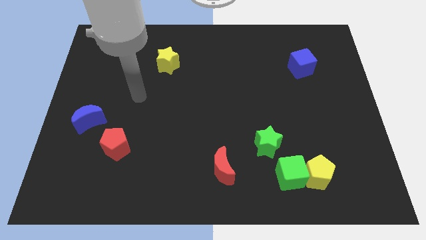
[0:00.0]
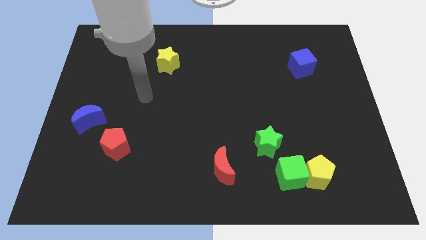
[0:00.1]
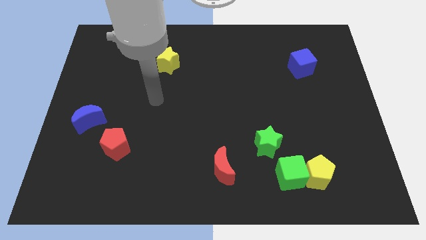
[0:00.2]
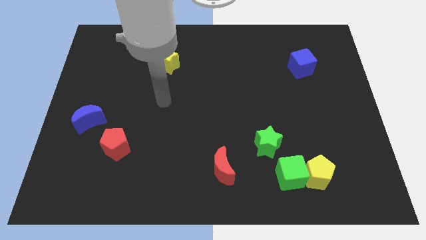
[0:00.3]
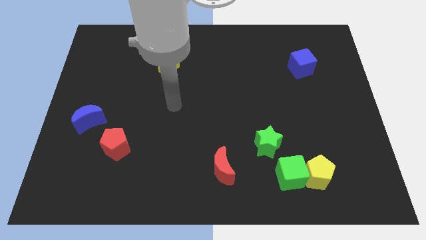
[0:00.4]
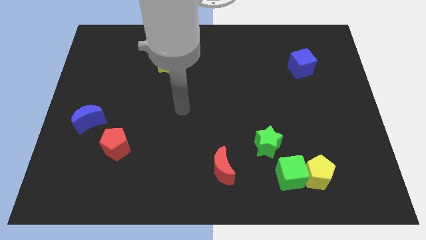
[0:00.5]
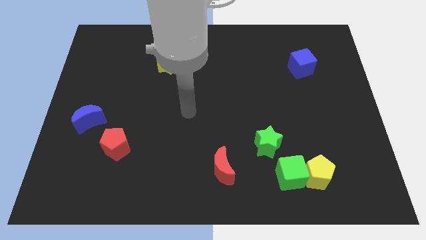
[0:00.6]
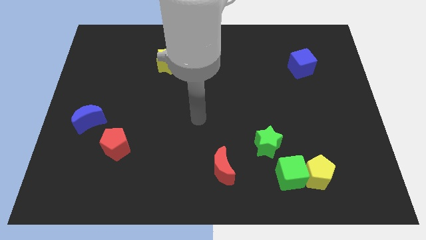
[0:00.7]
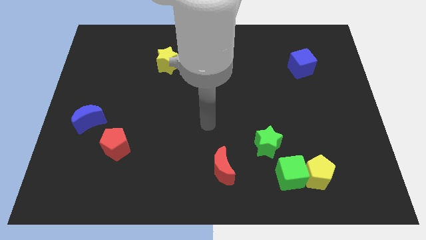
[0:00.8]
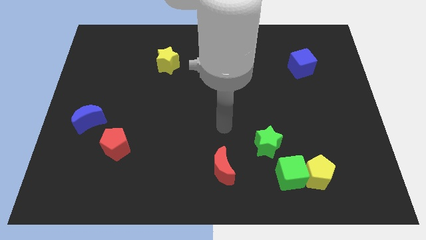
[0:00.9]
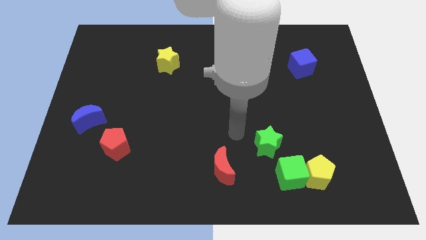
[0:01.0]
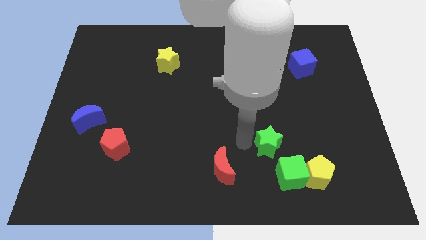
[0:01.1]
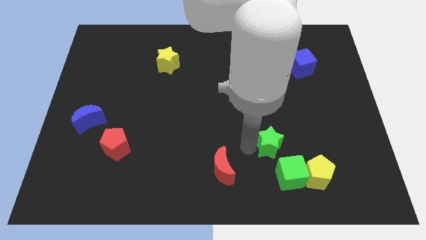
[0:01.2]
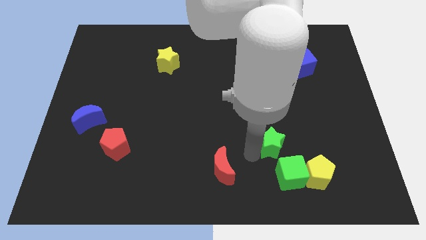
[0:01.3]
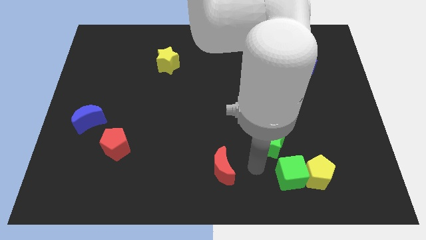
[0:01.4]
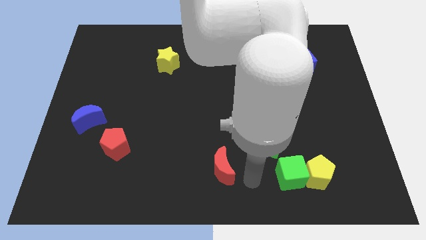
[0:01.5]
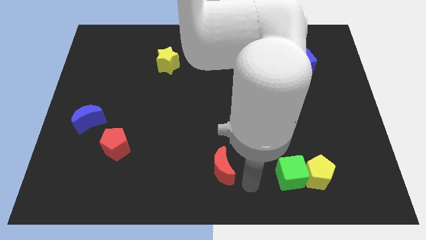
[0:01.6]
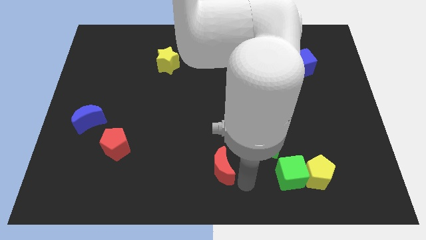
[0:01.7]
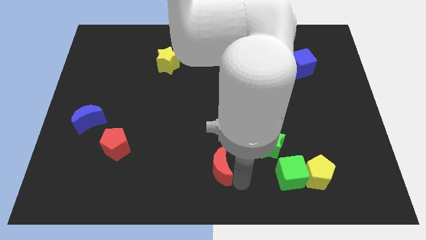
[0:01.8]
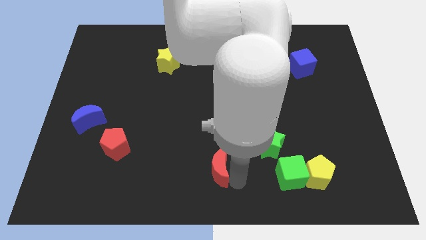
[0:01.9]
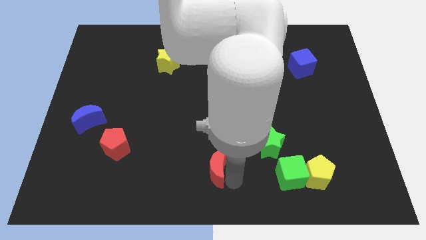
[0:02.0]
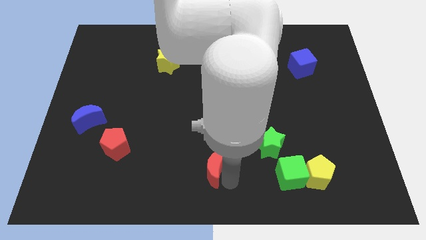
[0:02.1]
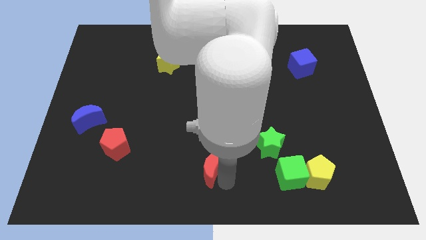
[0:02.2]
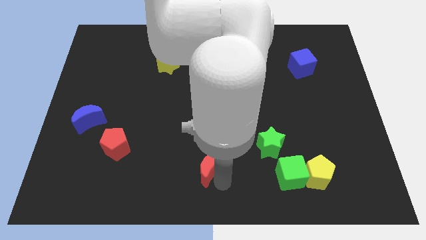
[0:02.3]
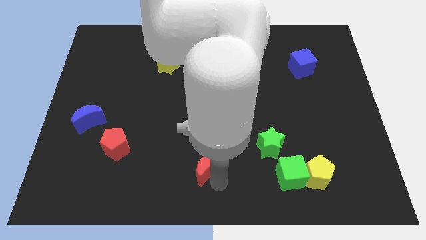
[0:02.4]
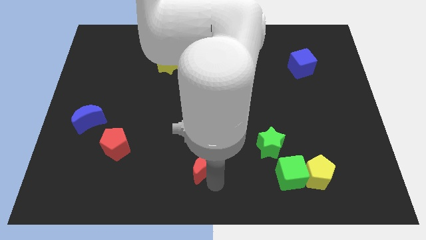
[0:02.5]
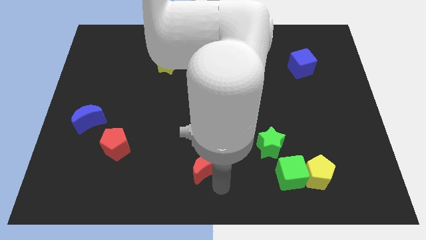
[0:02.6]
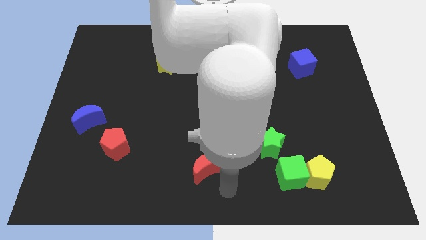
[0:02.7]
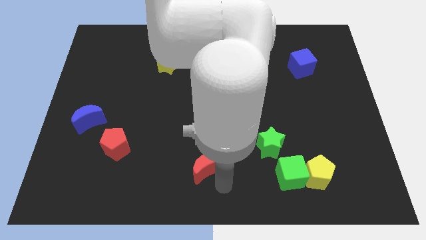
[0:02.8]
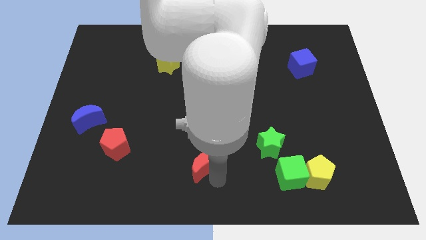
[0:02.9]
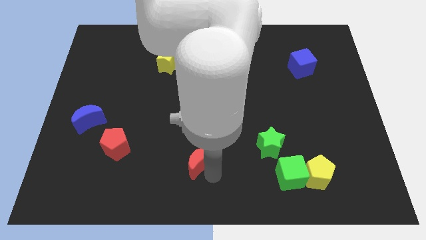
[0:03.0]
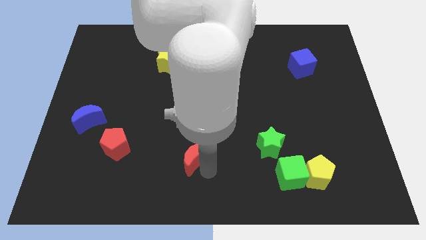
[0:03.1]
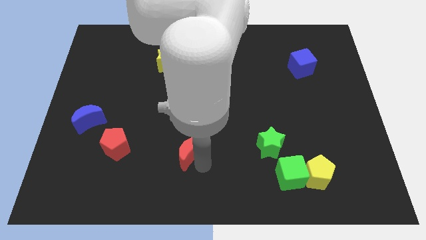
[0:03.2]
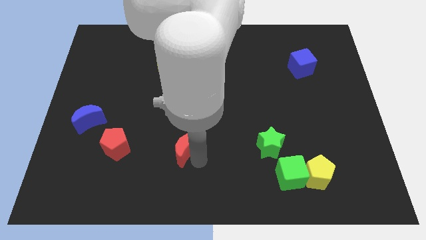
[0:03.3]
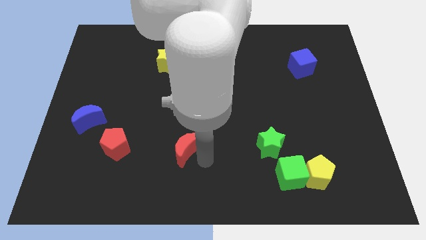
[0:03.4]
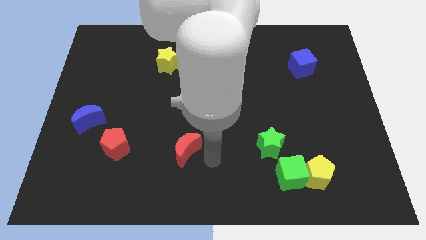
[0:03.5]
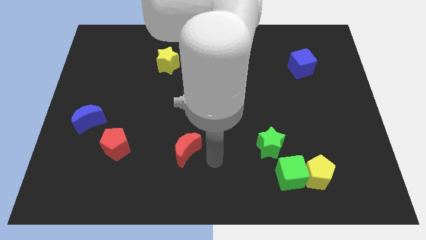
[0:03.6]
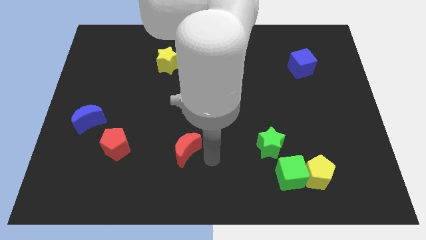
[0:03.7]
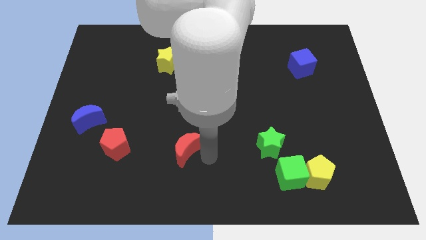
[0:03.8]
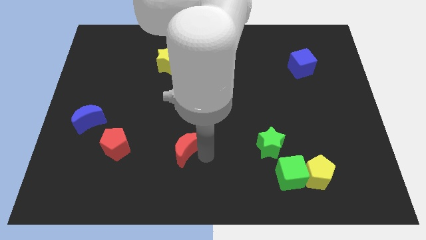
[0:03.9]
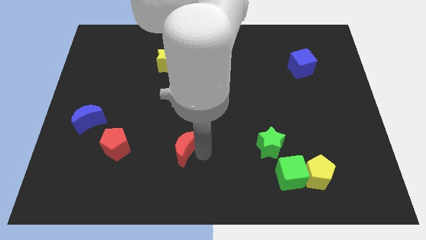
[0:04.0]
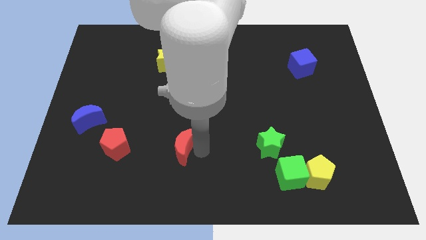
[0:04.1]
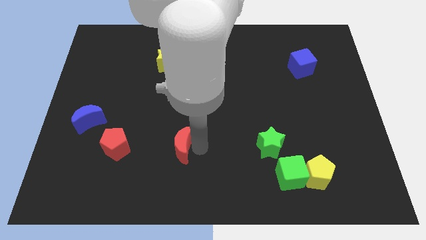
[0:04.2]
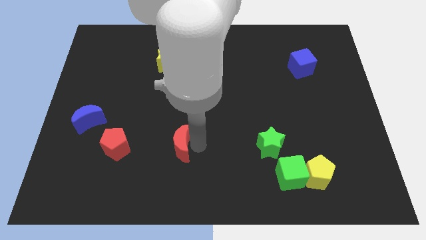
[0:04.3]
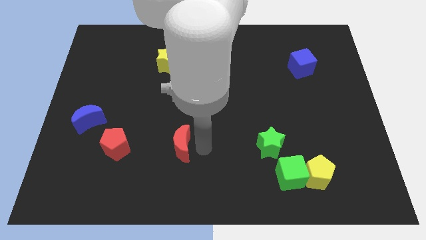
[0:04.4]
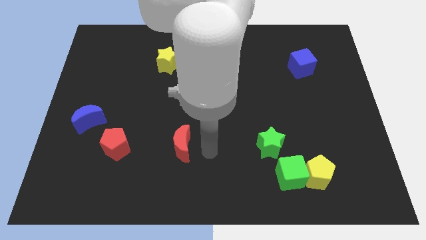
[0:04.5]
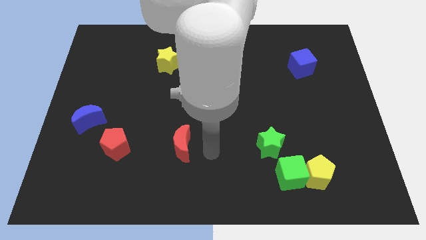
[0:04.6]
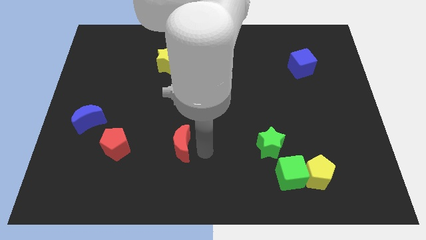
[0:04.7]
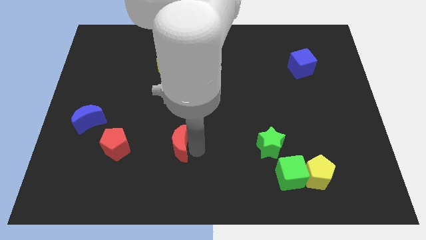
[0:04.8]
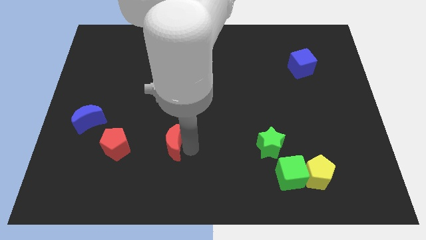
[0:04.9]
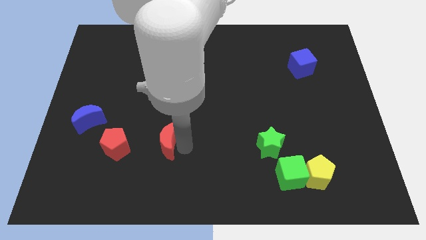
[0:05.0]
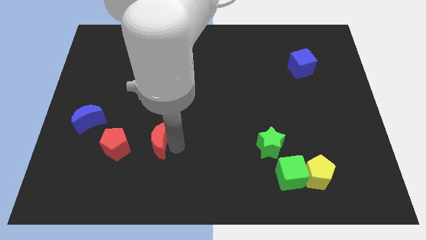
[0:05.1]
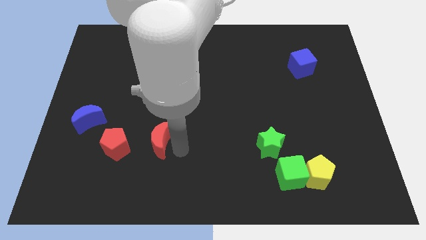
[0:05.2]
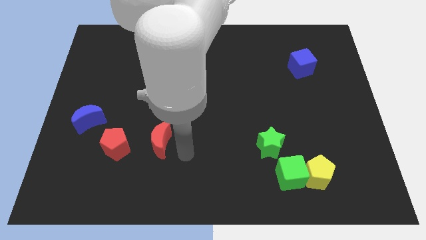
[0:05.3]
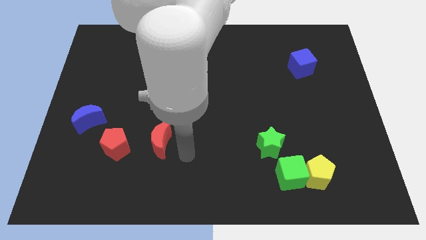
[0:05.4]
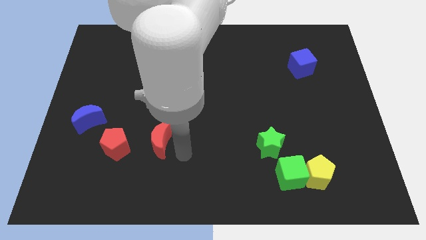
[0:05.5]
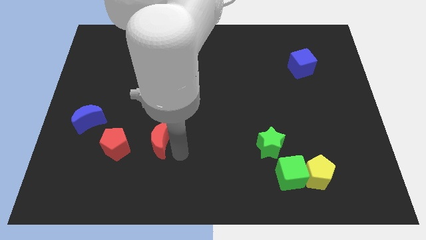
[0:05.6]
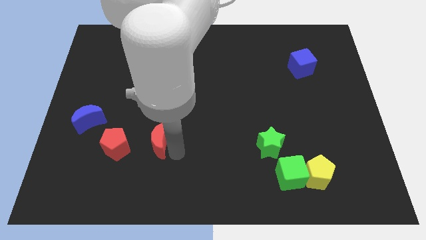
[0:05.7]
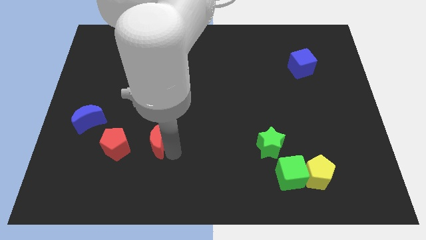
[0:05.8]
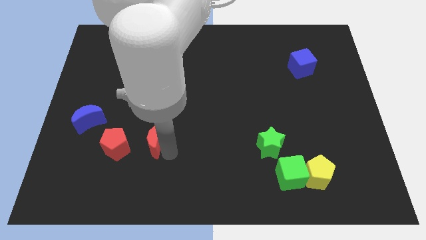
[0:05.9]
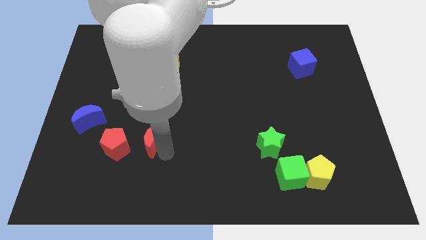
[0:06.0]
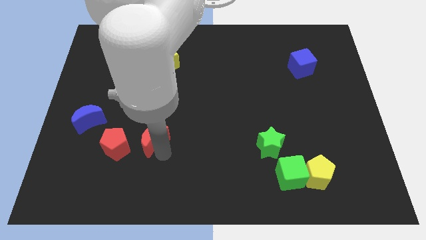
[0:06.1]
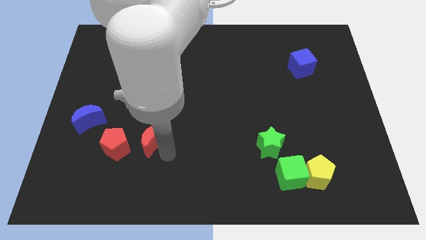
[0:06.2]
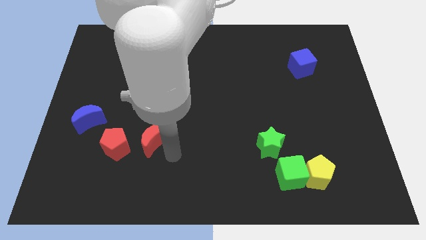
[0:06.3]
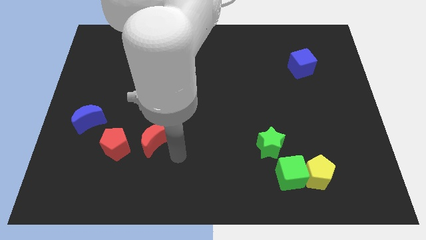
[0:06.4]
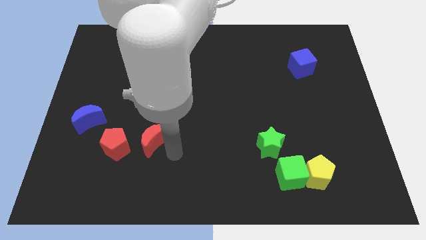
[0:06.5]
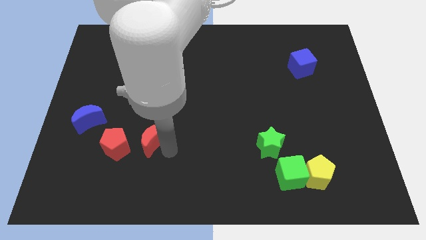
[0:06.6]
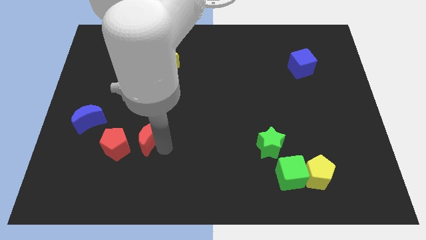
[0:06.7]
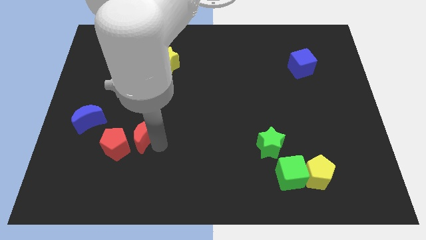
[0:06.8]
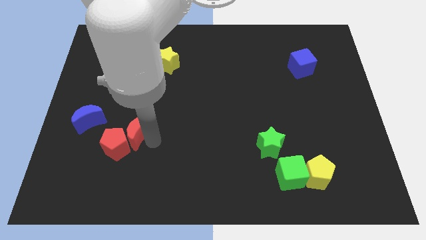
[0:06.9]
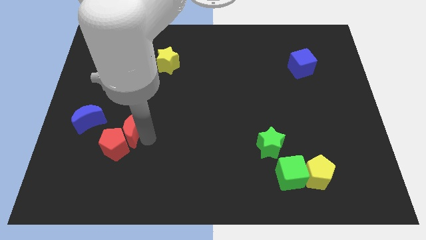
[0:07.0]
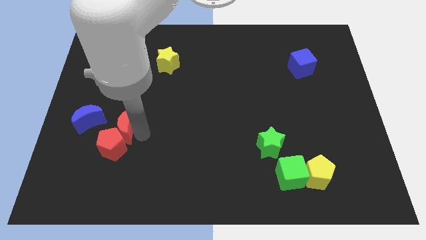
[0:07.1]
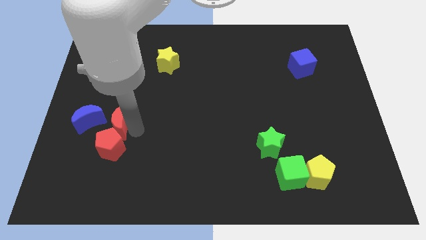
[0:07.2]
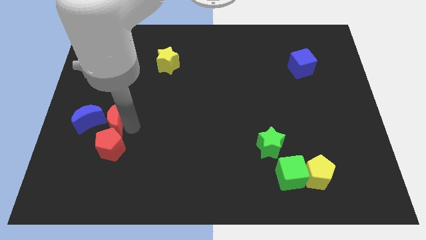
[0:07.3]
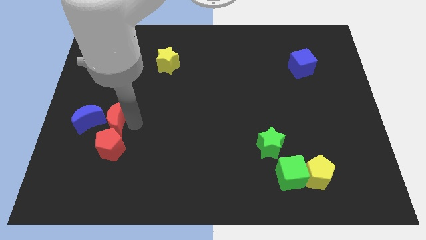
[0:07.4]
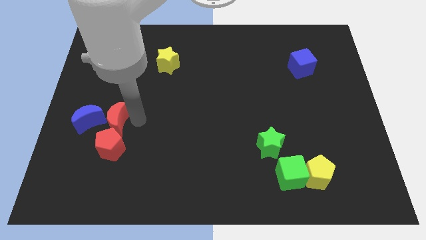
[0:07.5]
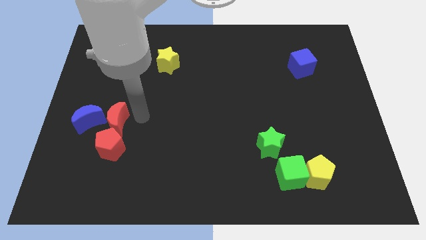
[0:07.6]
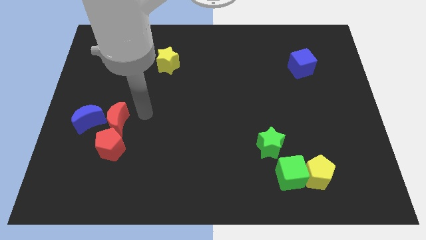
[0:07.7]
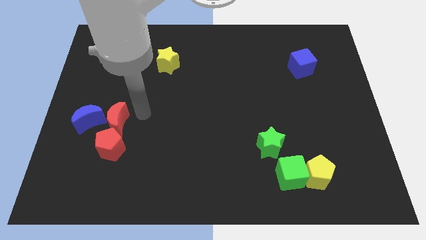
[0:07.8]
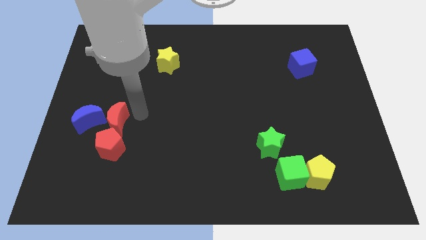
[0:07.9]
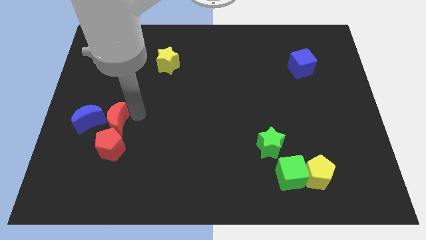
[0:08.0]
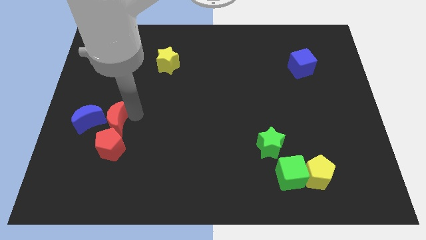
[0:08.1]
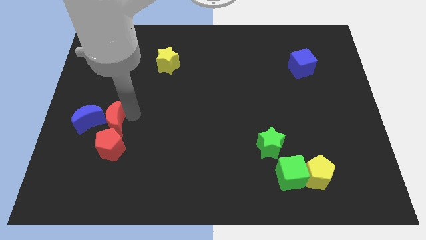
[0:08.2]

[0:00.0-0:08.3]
slide the red moon to the blue moon
